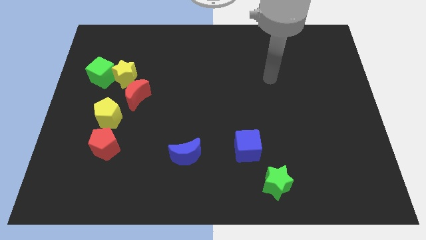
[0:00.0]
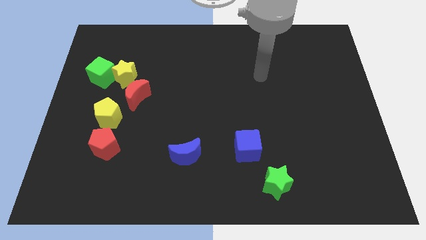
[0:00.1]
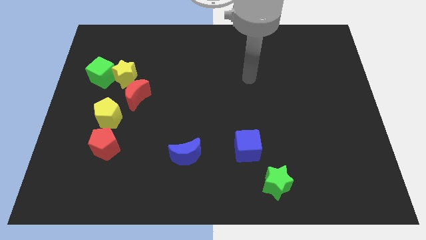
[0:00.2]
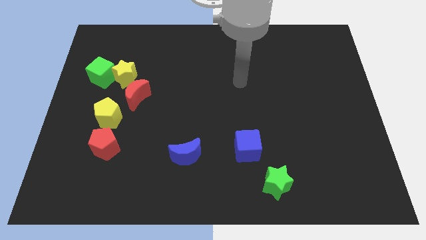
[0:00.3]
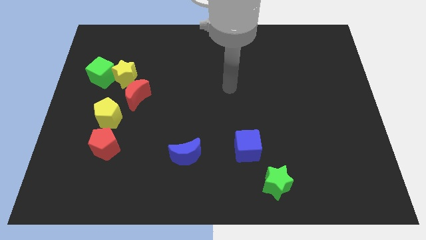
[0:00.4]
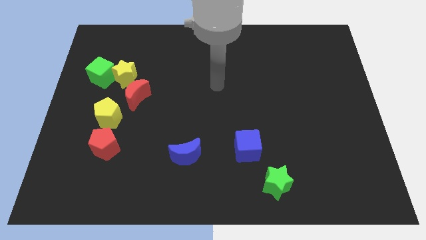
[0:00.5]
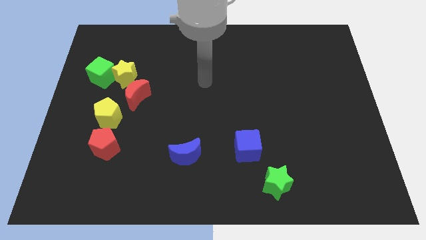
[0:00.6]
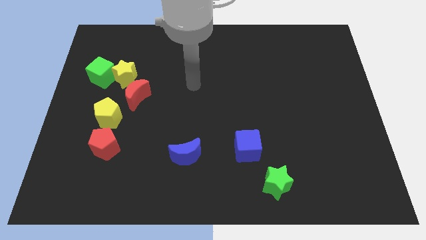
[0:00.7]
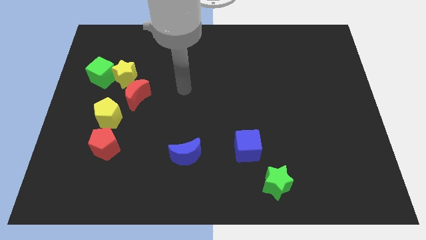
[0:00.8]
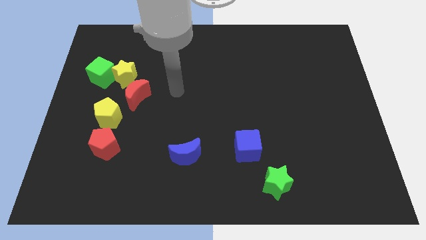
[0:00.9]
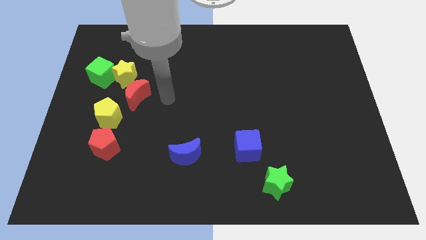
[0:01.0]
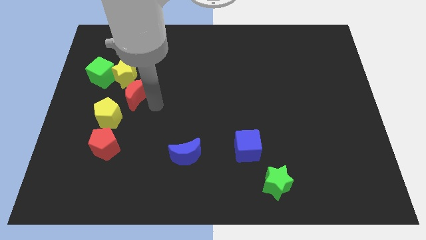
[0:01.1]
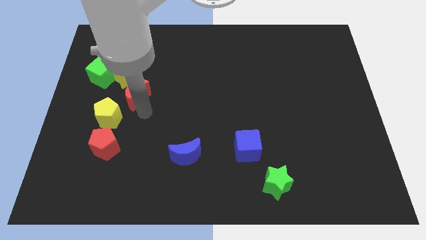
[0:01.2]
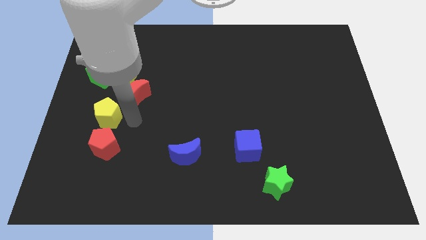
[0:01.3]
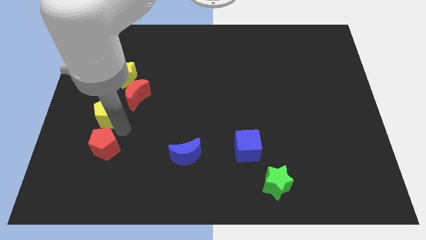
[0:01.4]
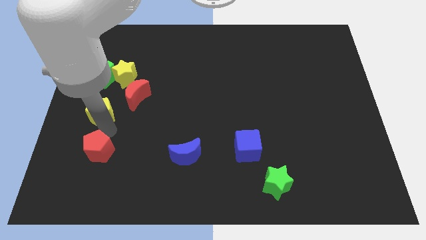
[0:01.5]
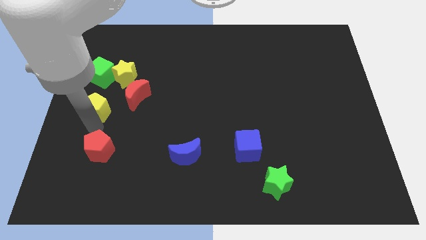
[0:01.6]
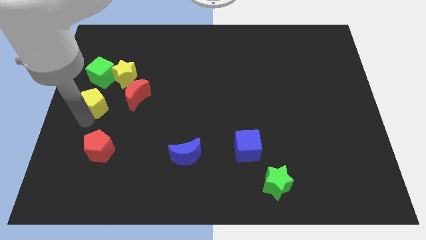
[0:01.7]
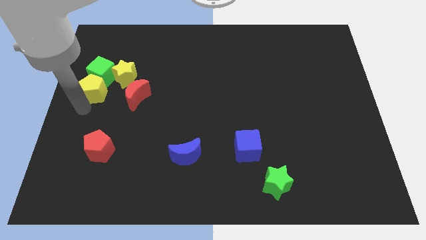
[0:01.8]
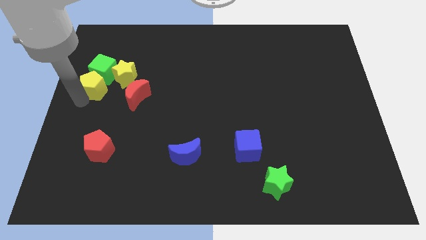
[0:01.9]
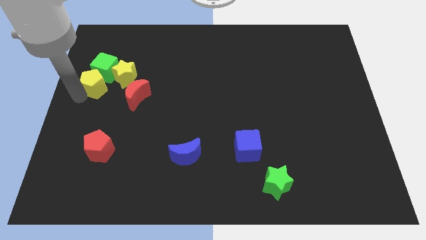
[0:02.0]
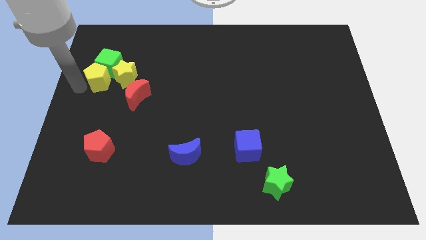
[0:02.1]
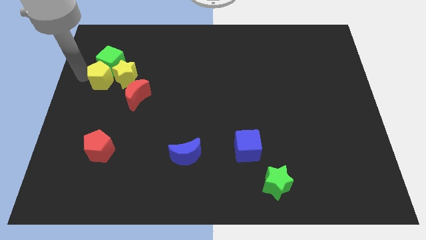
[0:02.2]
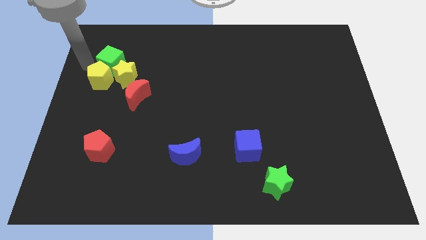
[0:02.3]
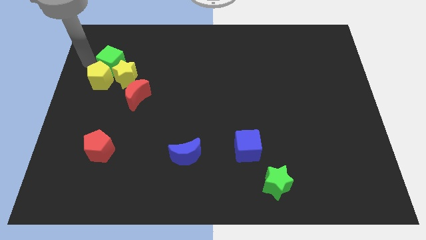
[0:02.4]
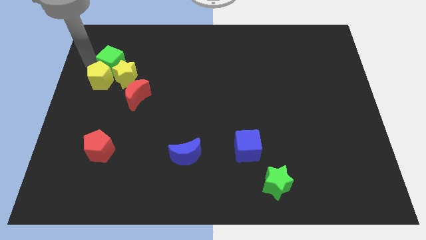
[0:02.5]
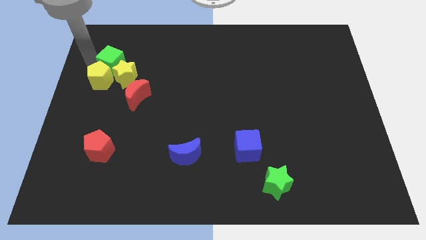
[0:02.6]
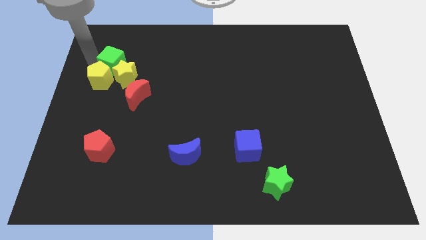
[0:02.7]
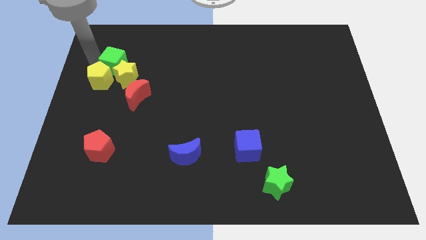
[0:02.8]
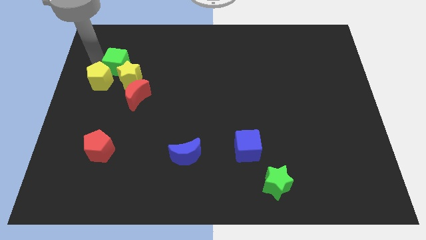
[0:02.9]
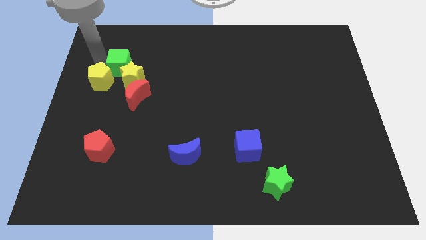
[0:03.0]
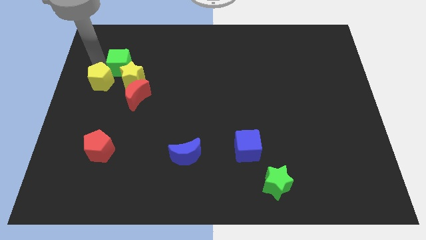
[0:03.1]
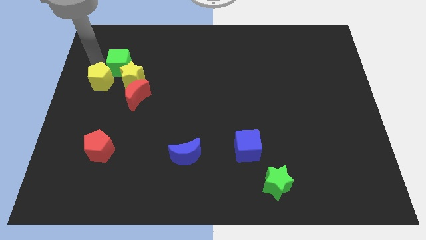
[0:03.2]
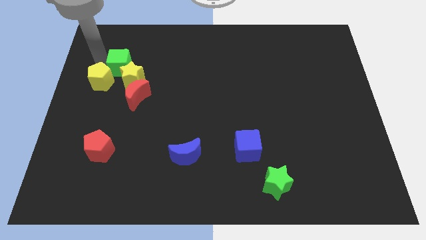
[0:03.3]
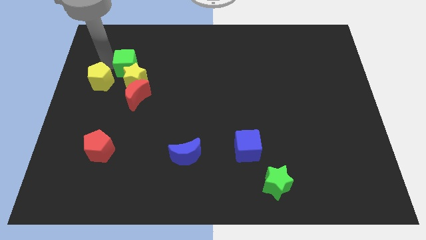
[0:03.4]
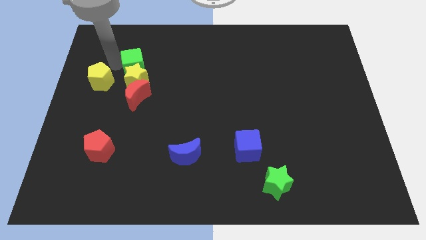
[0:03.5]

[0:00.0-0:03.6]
slightly slide the green cube to the right

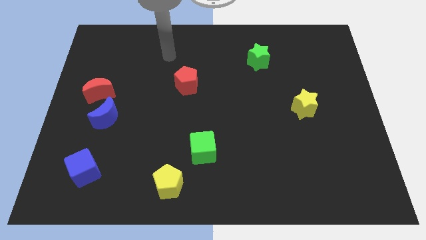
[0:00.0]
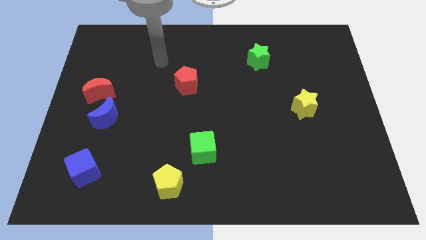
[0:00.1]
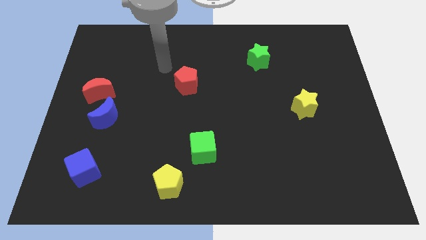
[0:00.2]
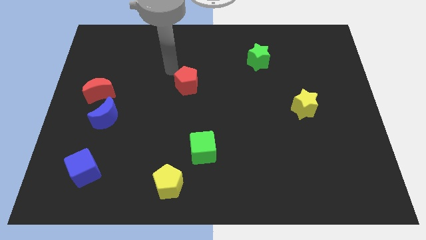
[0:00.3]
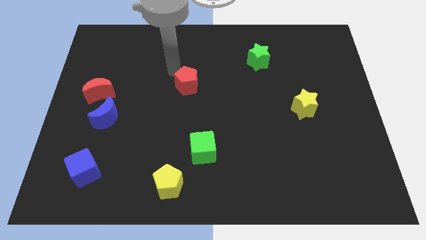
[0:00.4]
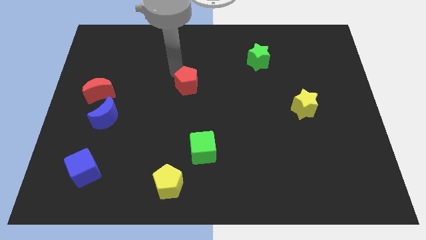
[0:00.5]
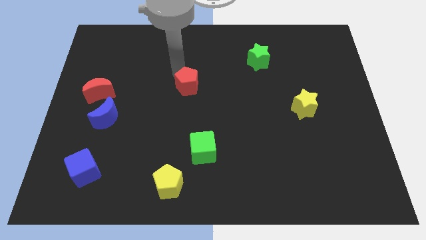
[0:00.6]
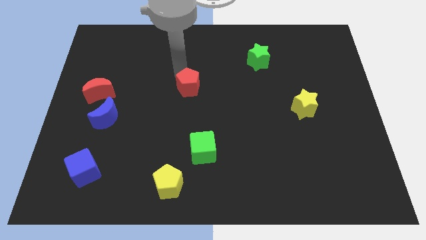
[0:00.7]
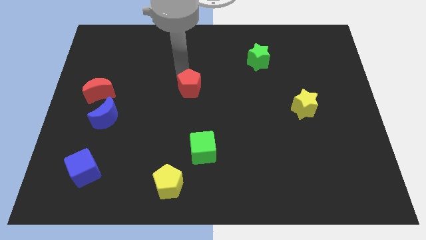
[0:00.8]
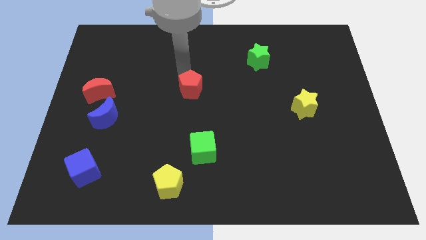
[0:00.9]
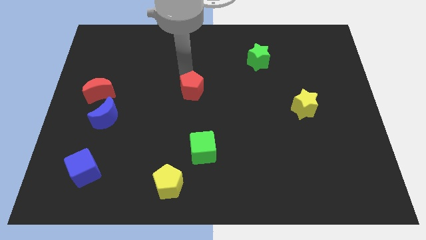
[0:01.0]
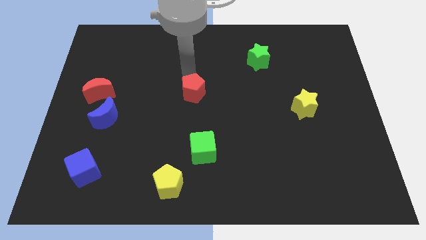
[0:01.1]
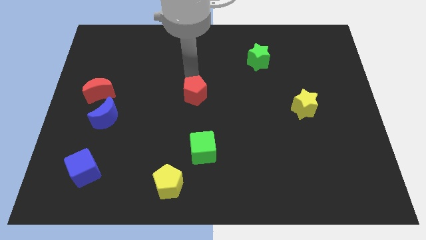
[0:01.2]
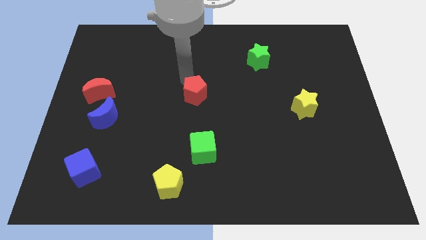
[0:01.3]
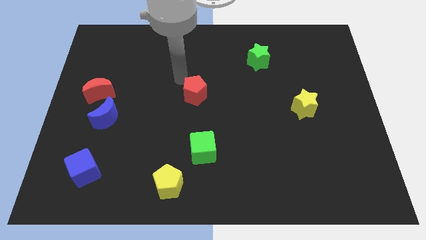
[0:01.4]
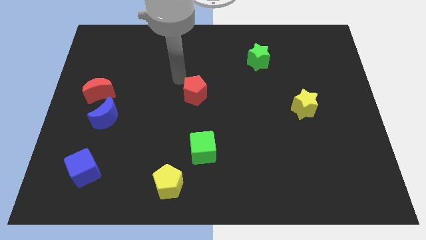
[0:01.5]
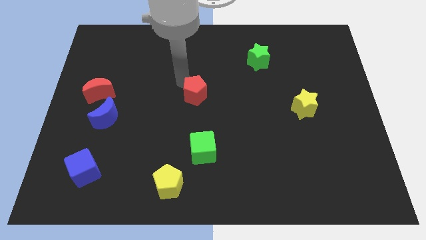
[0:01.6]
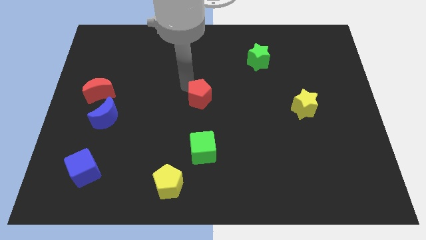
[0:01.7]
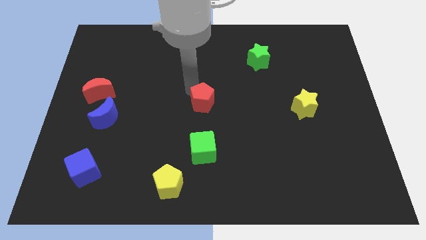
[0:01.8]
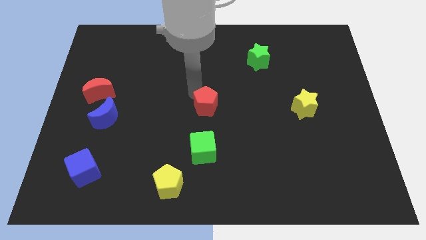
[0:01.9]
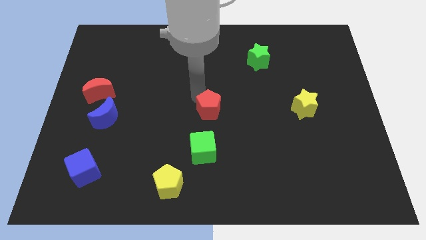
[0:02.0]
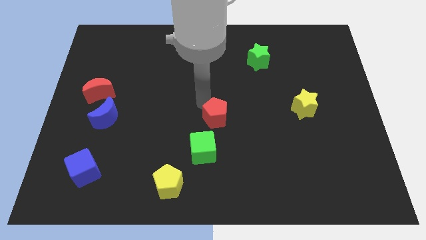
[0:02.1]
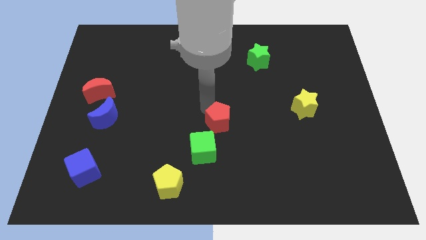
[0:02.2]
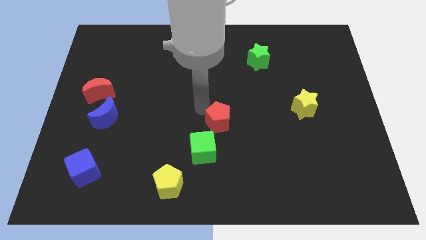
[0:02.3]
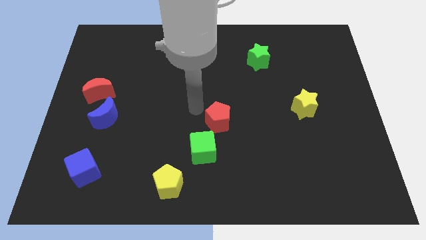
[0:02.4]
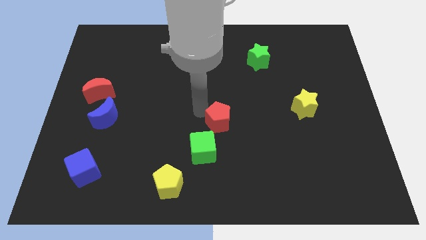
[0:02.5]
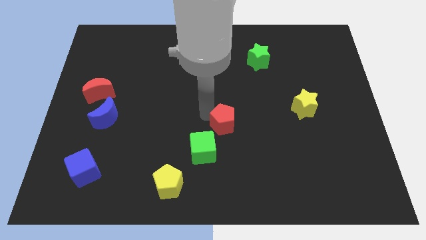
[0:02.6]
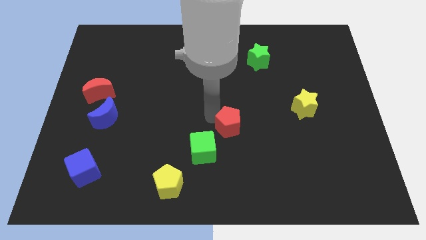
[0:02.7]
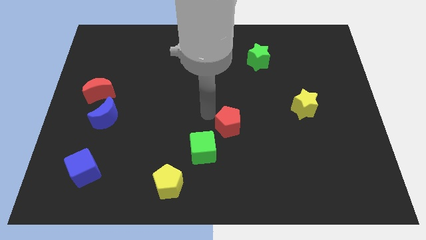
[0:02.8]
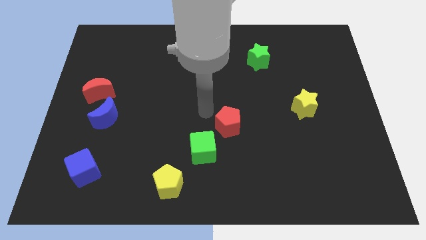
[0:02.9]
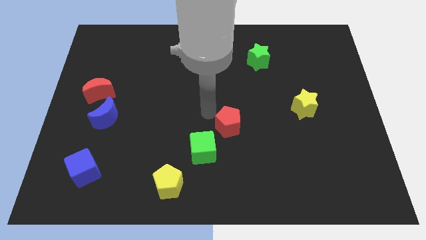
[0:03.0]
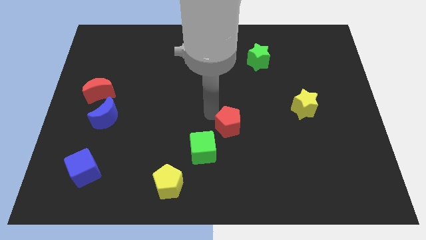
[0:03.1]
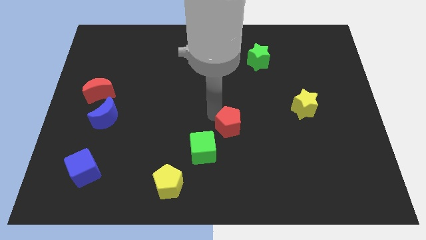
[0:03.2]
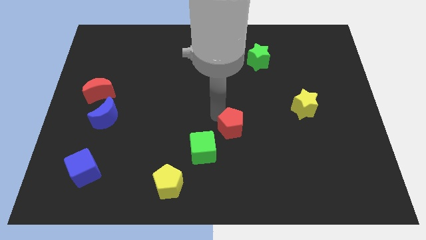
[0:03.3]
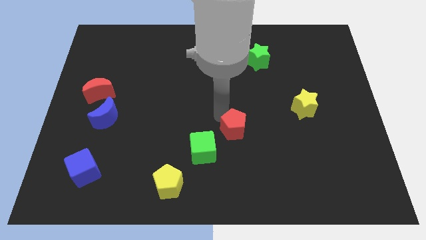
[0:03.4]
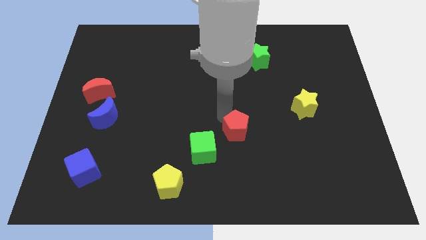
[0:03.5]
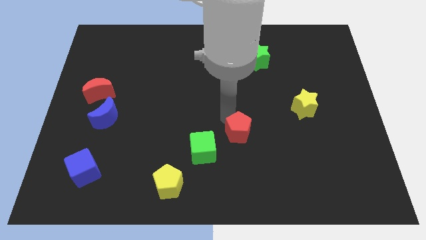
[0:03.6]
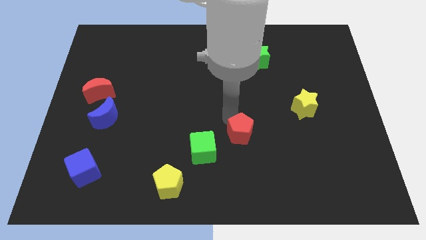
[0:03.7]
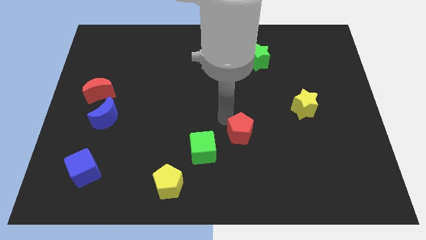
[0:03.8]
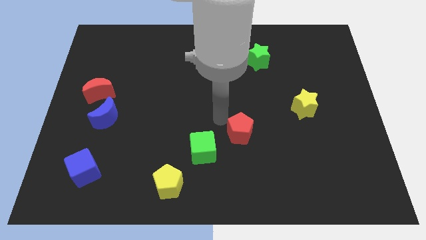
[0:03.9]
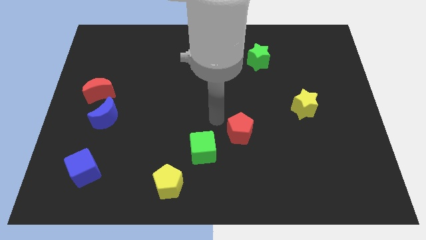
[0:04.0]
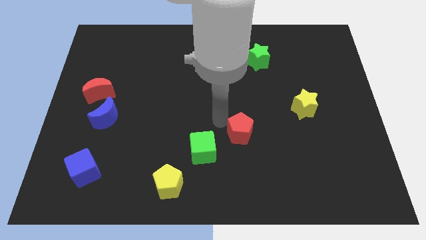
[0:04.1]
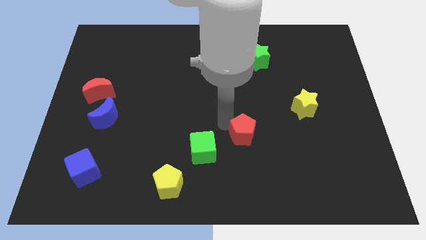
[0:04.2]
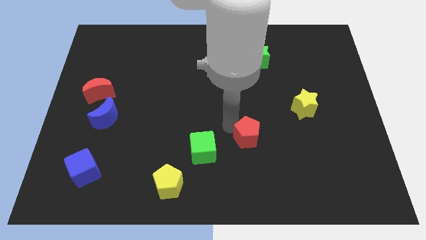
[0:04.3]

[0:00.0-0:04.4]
slide the red pentagon down and right diagonally

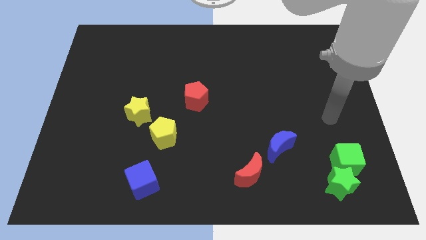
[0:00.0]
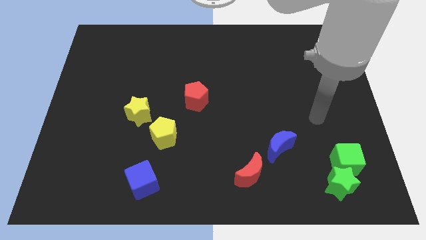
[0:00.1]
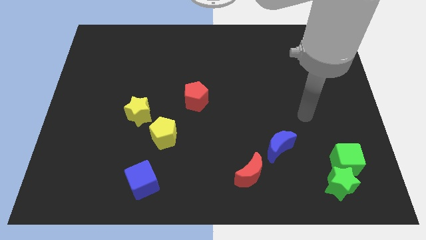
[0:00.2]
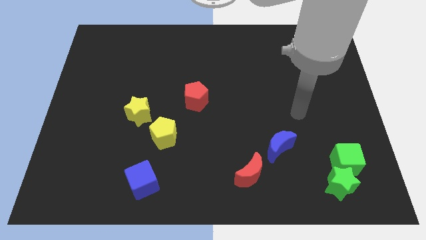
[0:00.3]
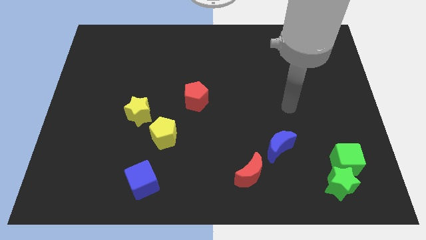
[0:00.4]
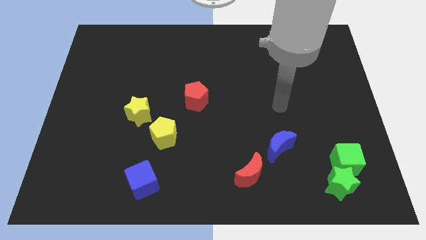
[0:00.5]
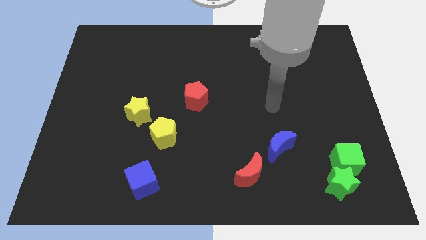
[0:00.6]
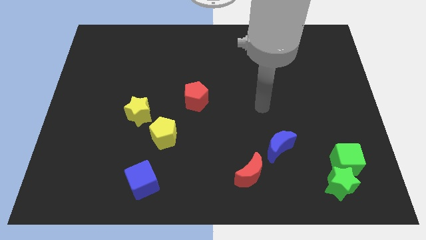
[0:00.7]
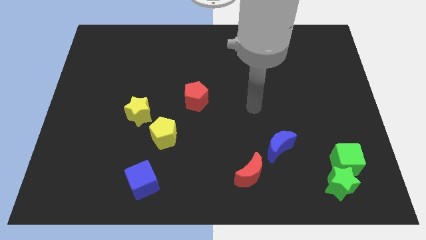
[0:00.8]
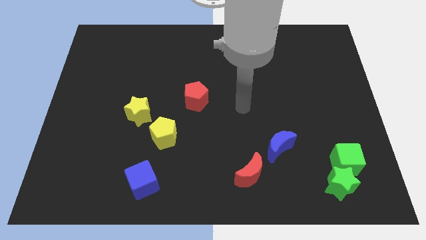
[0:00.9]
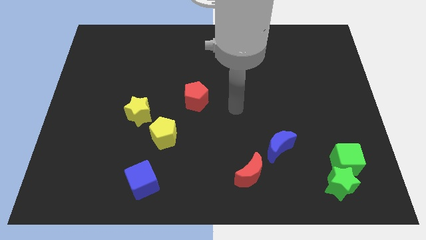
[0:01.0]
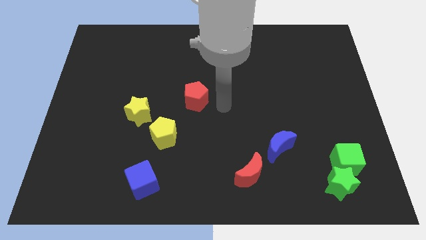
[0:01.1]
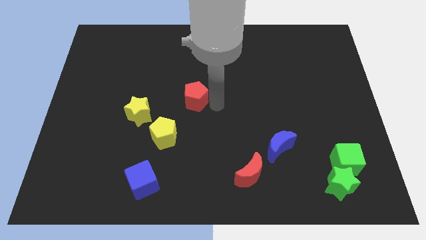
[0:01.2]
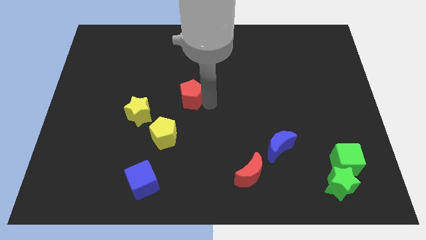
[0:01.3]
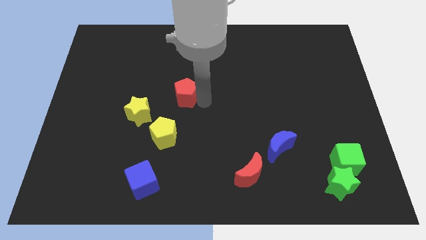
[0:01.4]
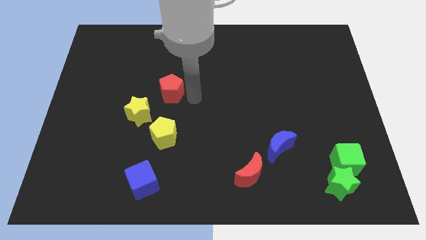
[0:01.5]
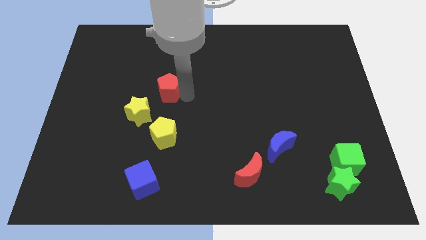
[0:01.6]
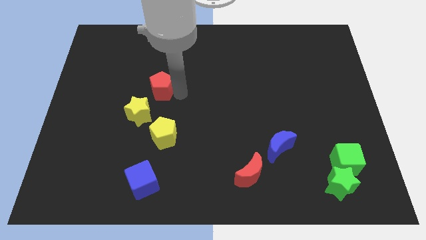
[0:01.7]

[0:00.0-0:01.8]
slide the red pentagon somewhat to the left
